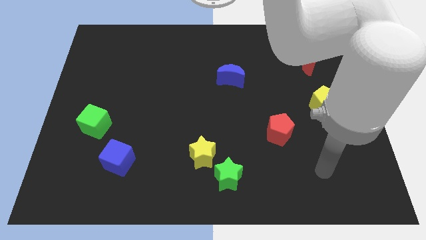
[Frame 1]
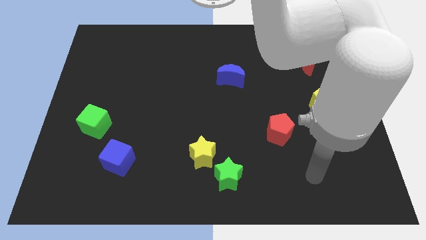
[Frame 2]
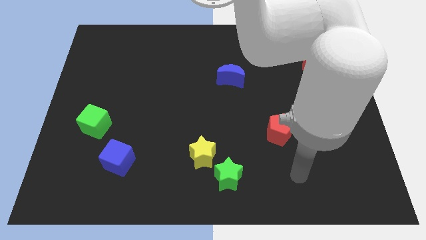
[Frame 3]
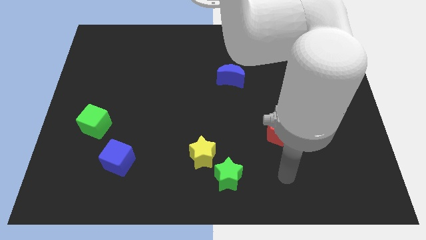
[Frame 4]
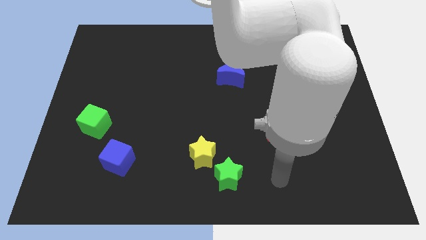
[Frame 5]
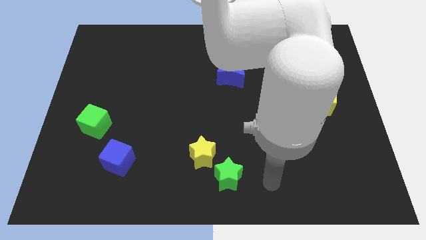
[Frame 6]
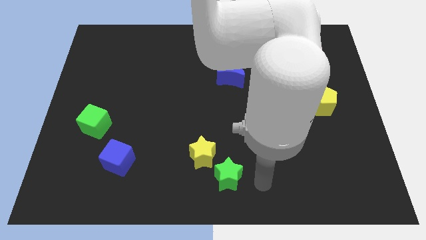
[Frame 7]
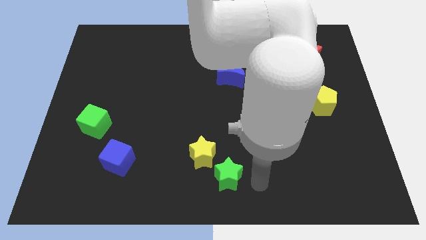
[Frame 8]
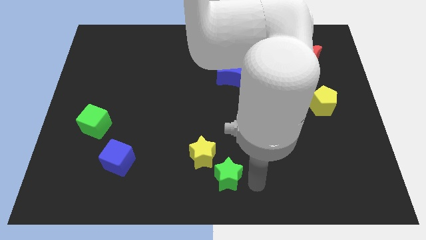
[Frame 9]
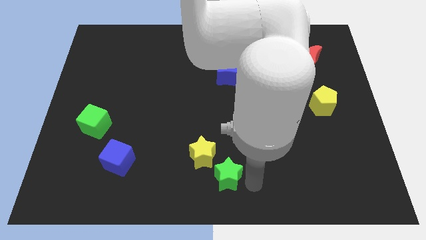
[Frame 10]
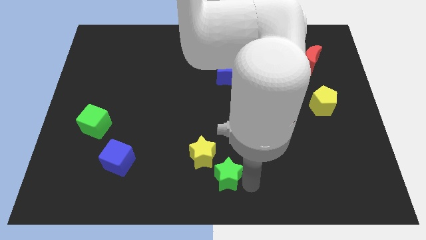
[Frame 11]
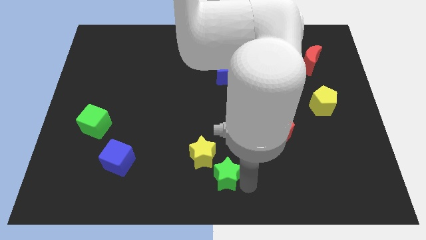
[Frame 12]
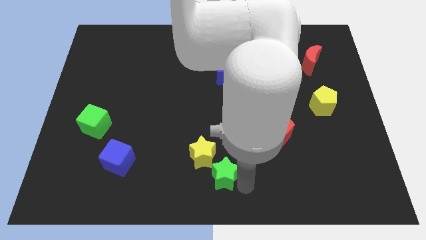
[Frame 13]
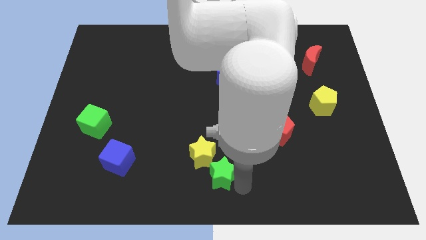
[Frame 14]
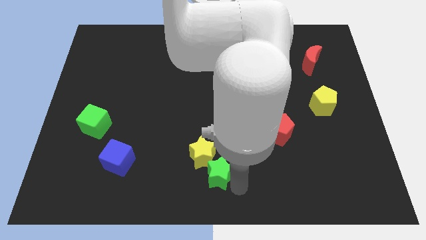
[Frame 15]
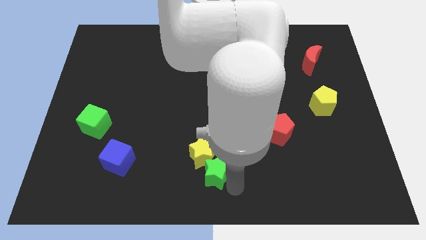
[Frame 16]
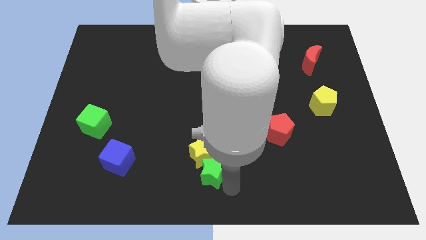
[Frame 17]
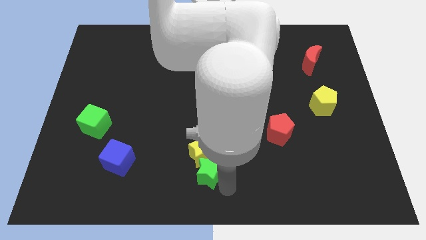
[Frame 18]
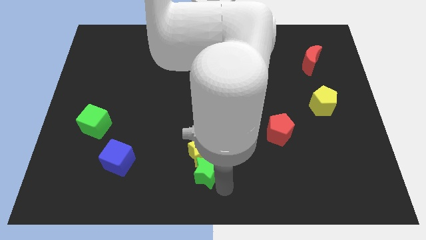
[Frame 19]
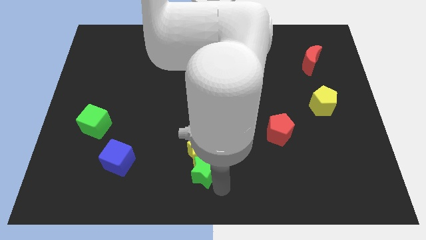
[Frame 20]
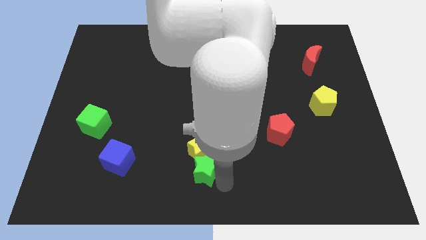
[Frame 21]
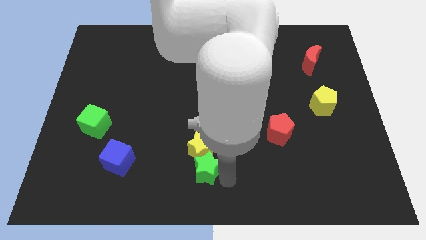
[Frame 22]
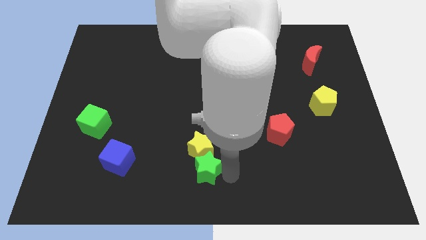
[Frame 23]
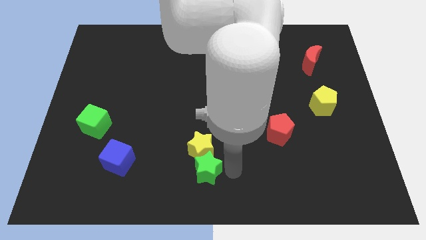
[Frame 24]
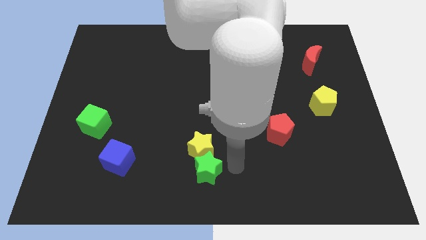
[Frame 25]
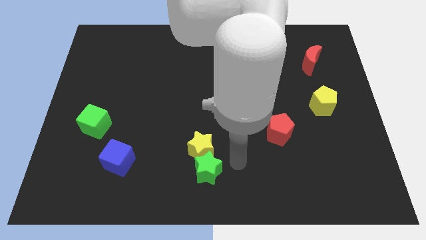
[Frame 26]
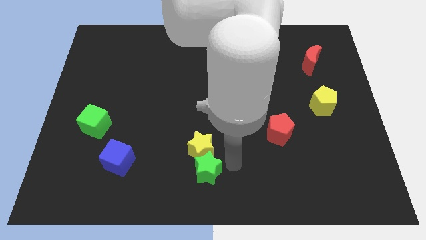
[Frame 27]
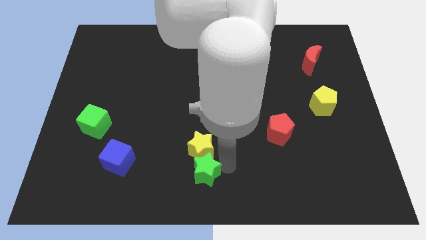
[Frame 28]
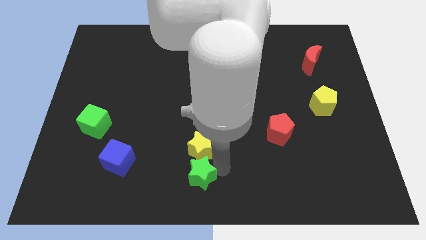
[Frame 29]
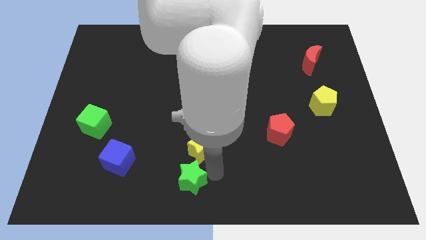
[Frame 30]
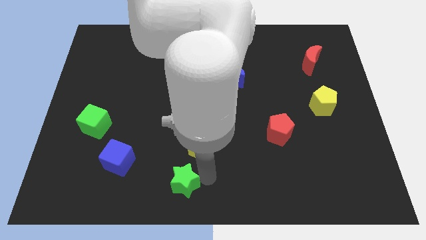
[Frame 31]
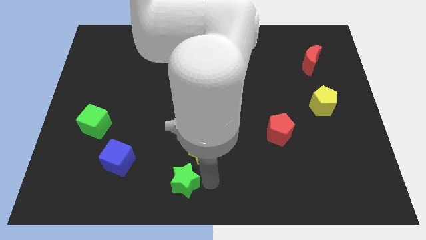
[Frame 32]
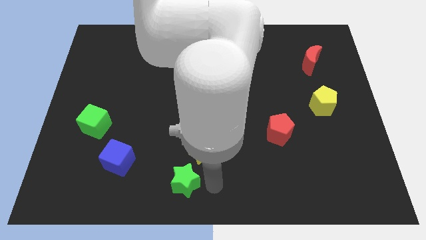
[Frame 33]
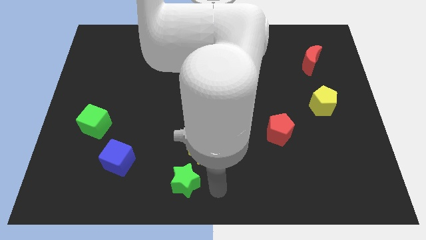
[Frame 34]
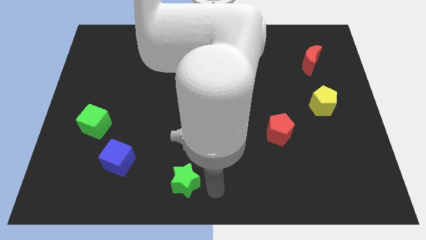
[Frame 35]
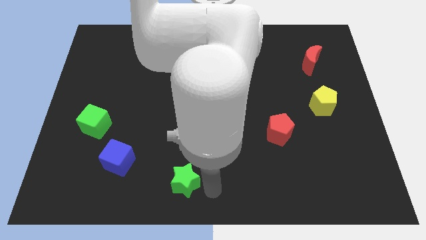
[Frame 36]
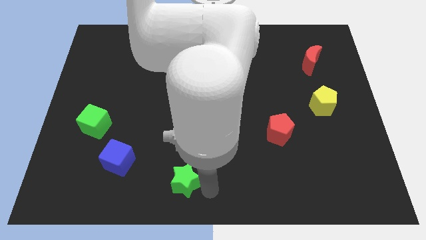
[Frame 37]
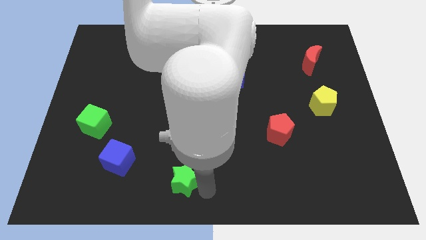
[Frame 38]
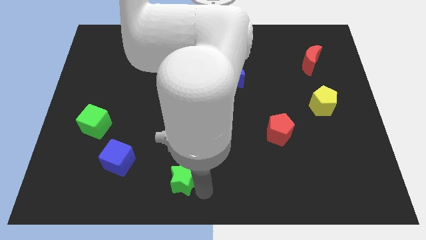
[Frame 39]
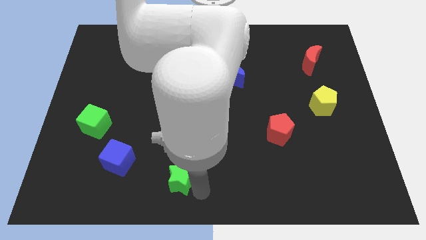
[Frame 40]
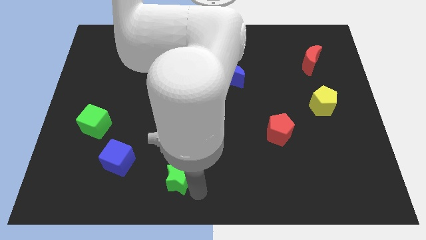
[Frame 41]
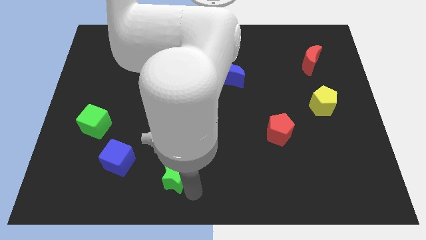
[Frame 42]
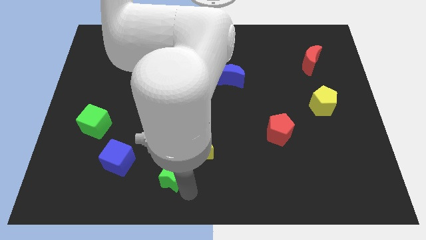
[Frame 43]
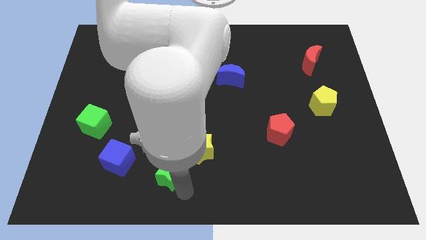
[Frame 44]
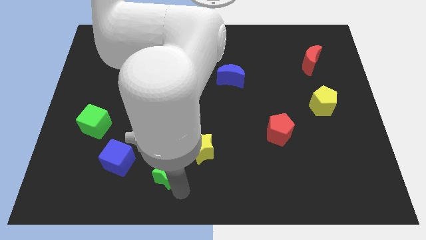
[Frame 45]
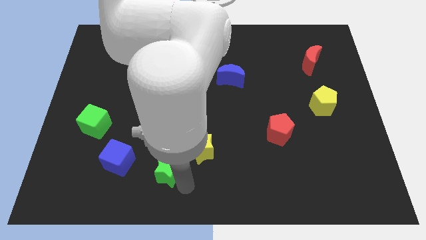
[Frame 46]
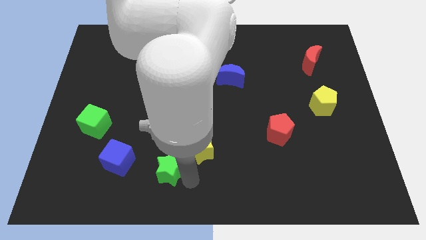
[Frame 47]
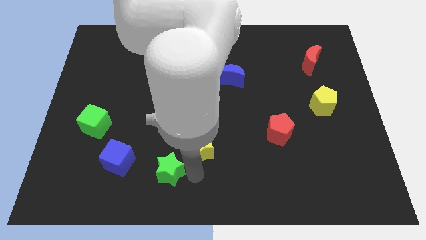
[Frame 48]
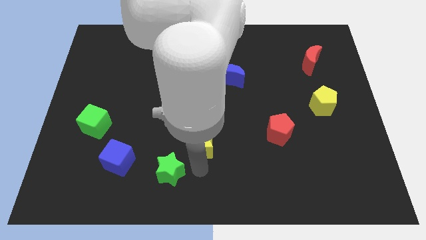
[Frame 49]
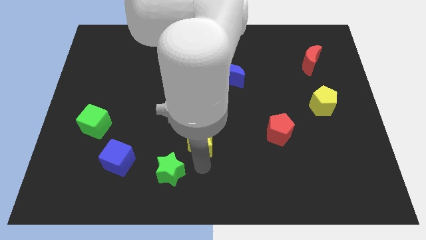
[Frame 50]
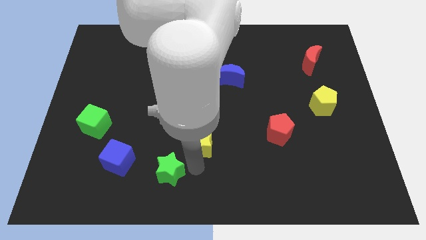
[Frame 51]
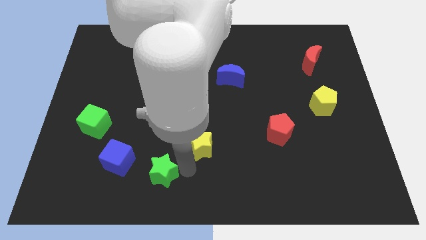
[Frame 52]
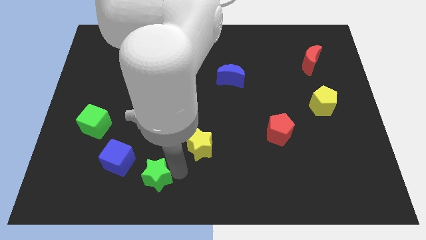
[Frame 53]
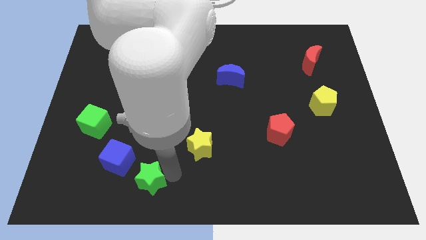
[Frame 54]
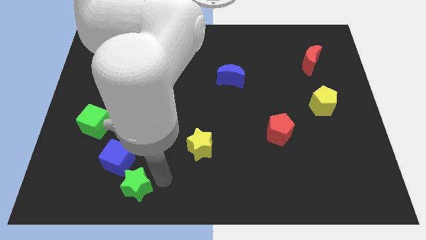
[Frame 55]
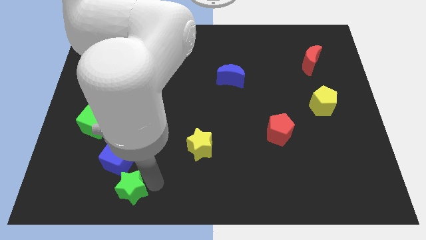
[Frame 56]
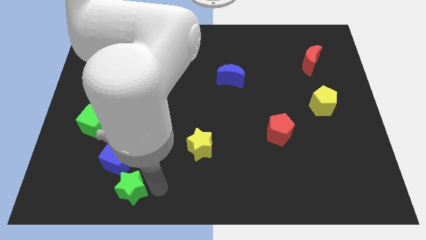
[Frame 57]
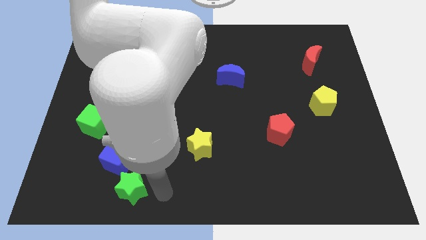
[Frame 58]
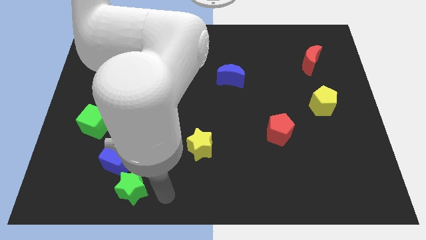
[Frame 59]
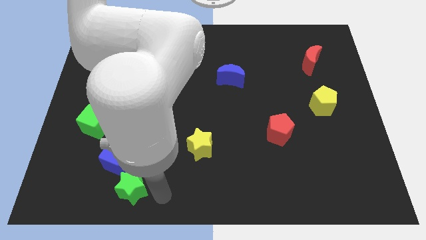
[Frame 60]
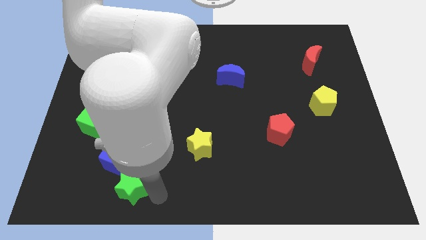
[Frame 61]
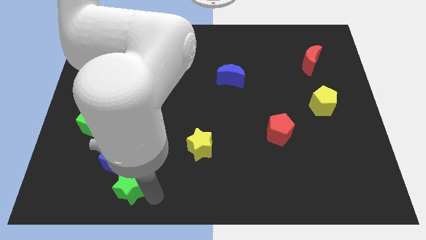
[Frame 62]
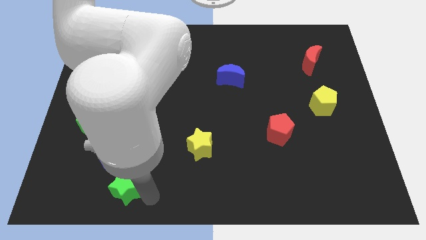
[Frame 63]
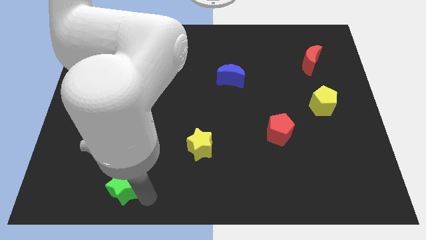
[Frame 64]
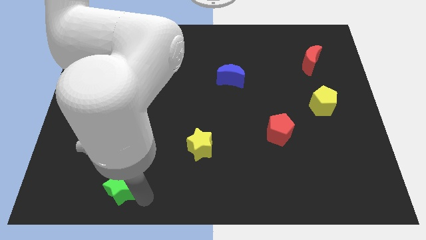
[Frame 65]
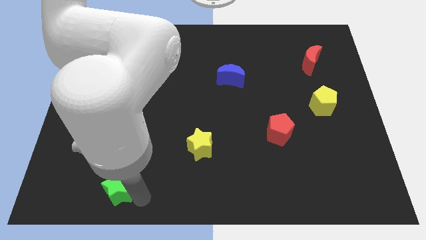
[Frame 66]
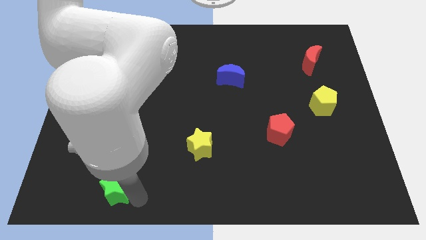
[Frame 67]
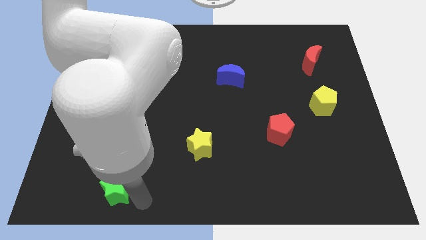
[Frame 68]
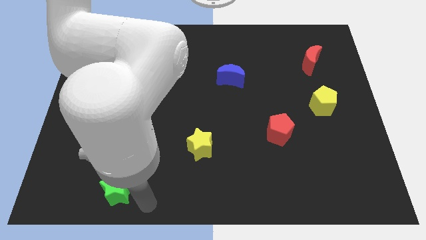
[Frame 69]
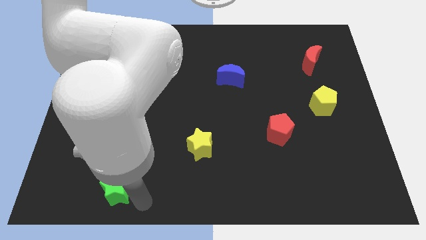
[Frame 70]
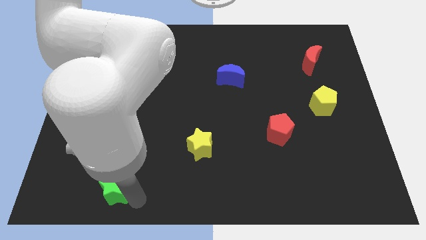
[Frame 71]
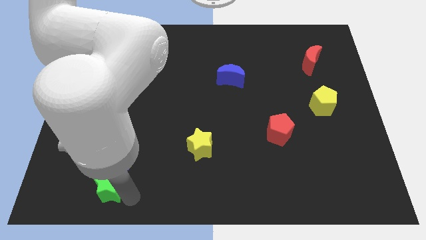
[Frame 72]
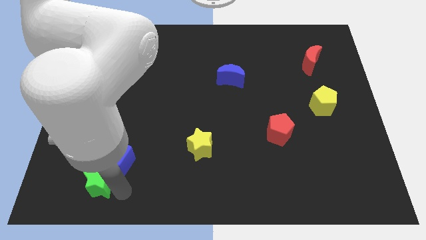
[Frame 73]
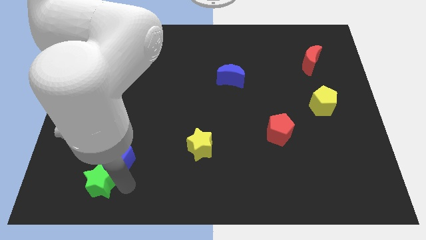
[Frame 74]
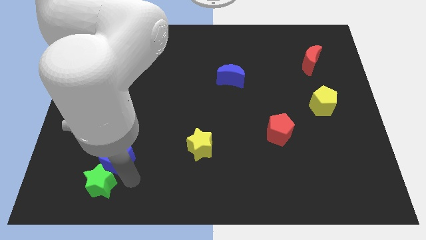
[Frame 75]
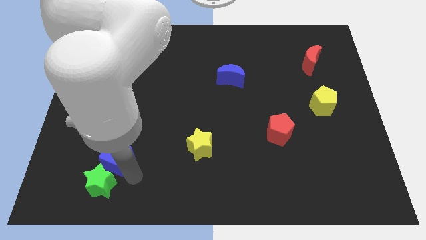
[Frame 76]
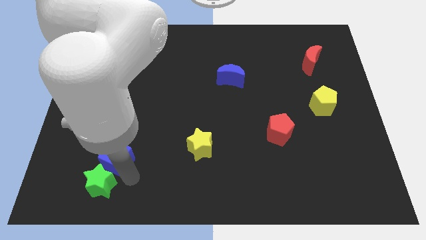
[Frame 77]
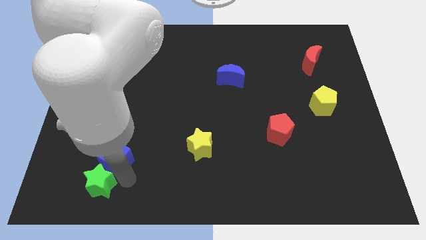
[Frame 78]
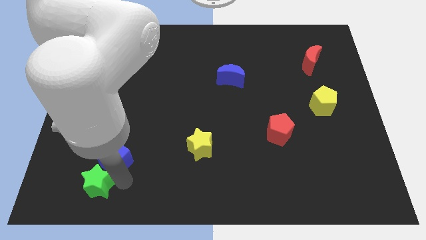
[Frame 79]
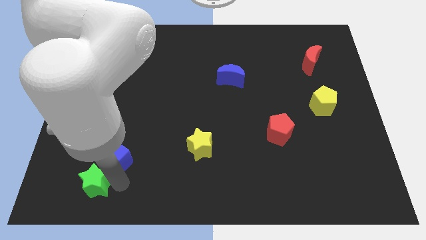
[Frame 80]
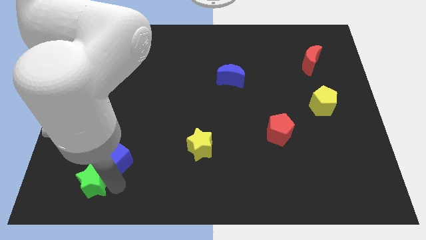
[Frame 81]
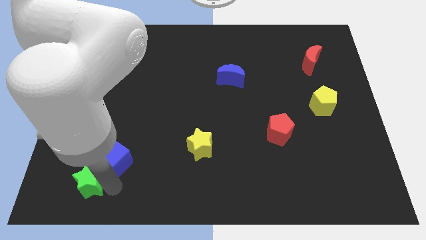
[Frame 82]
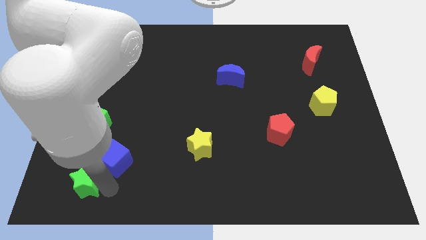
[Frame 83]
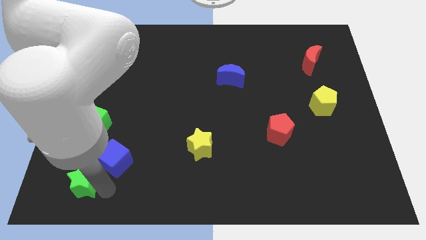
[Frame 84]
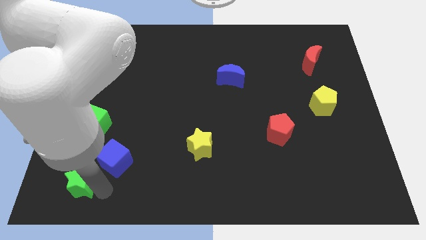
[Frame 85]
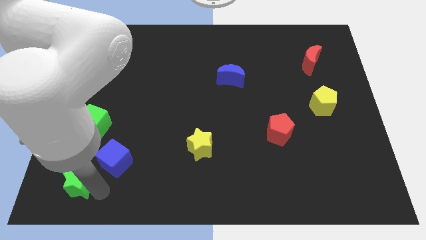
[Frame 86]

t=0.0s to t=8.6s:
slide the green star to the bottom left
